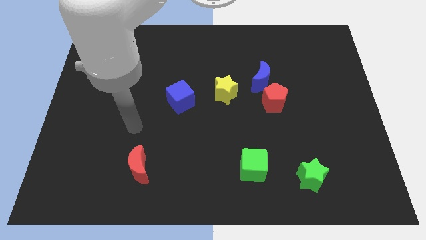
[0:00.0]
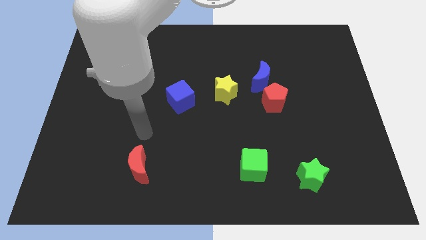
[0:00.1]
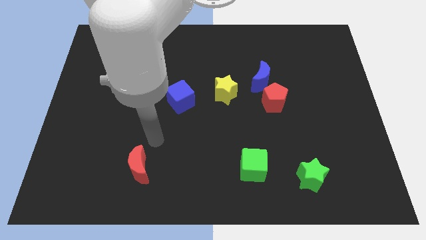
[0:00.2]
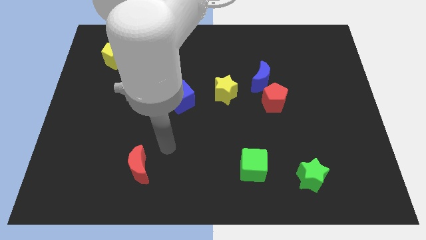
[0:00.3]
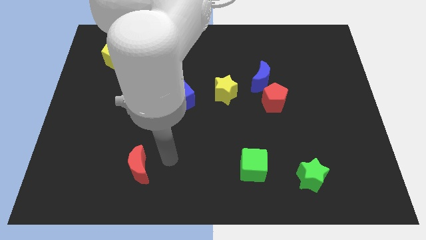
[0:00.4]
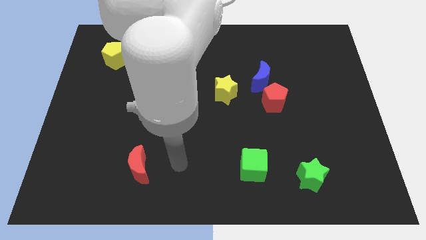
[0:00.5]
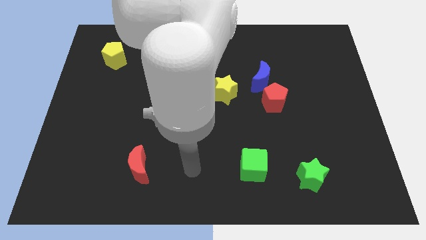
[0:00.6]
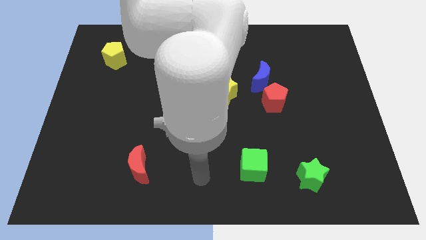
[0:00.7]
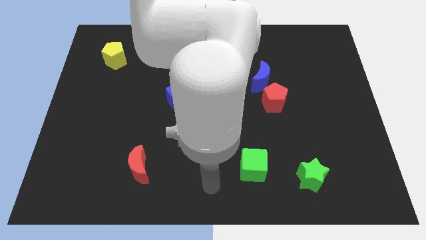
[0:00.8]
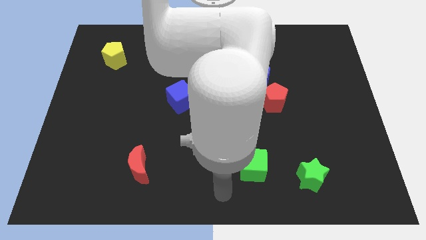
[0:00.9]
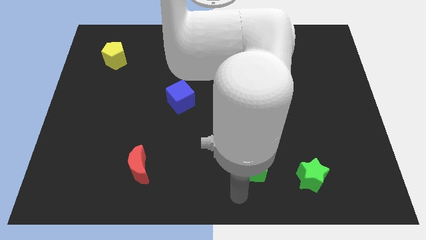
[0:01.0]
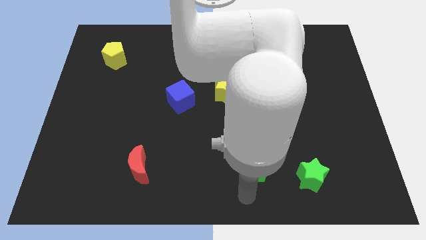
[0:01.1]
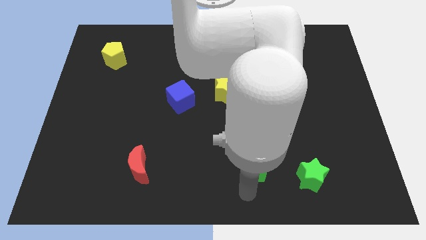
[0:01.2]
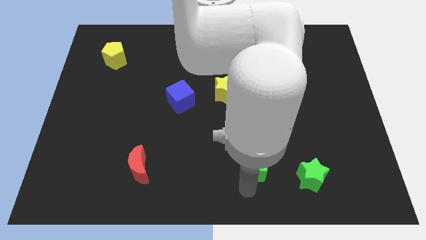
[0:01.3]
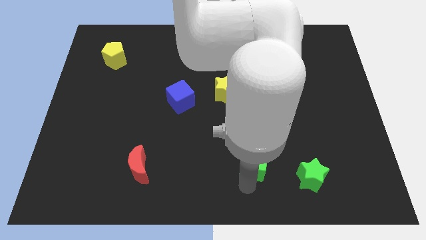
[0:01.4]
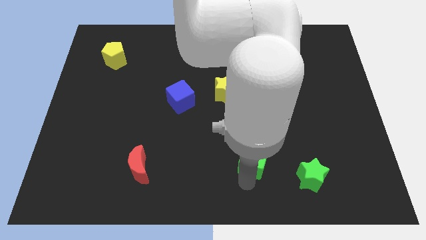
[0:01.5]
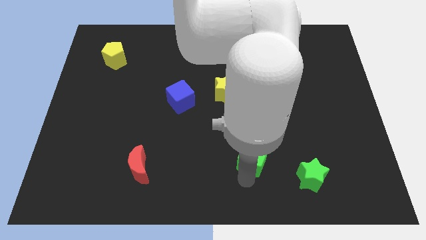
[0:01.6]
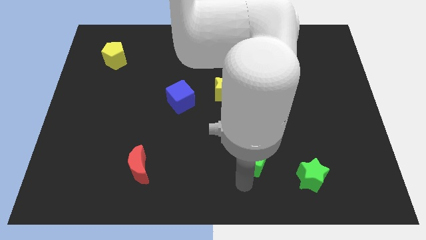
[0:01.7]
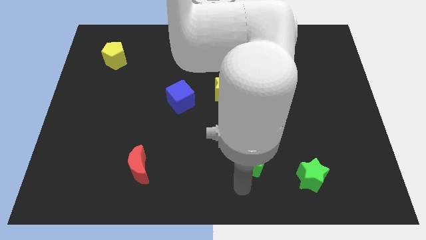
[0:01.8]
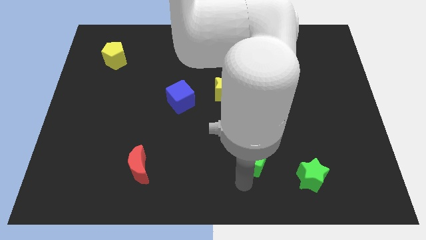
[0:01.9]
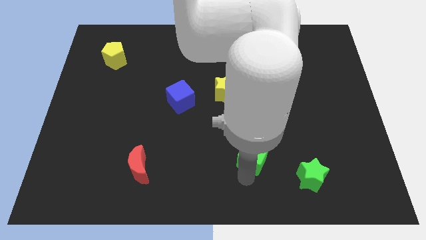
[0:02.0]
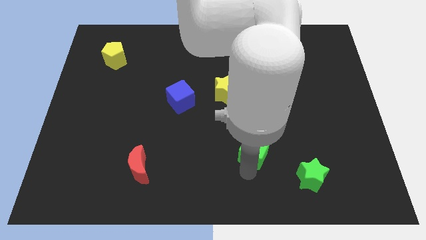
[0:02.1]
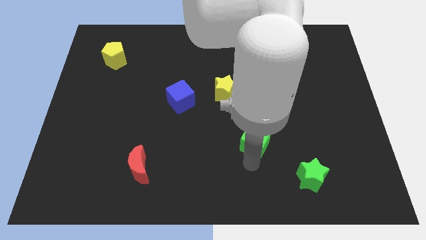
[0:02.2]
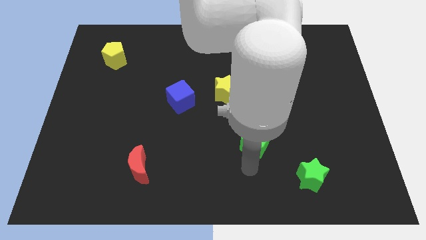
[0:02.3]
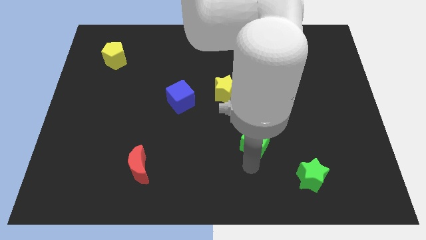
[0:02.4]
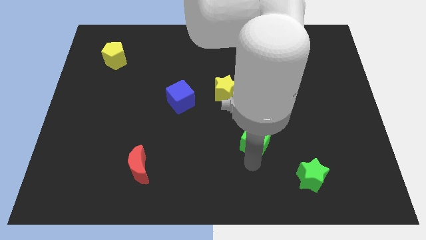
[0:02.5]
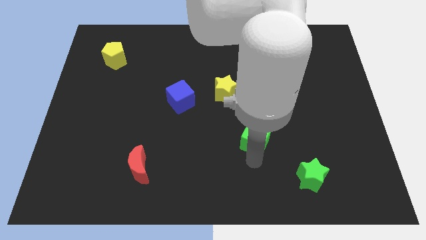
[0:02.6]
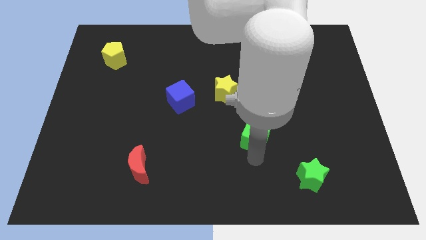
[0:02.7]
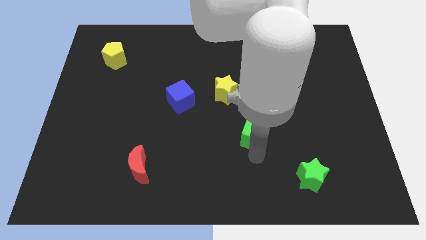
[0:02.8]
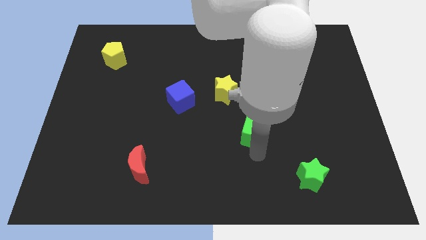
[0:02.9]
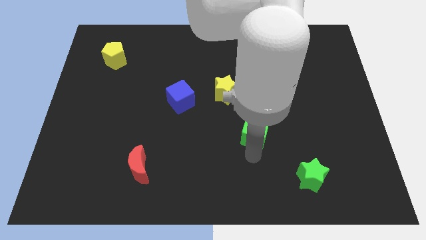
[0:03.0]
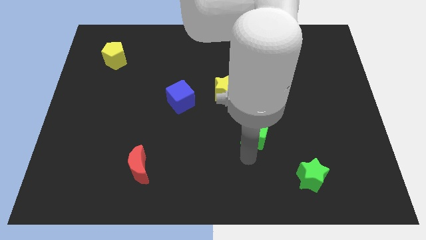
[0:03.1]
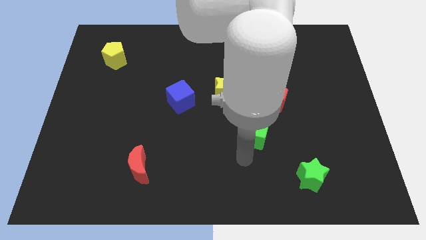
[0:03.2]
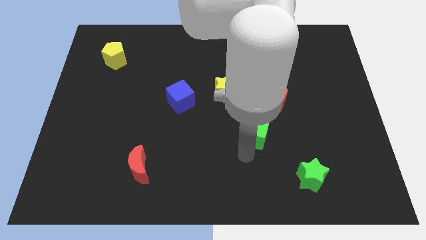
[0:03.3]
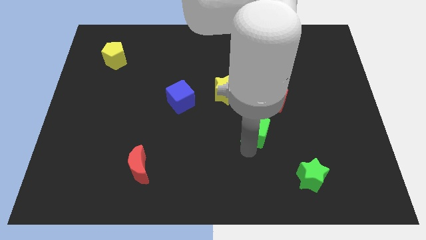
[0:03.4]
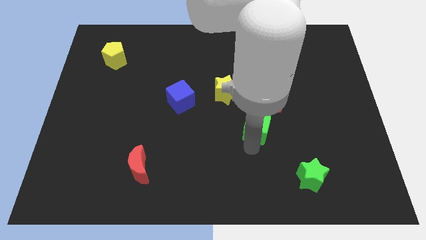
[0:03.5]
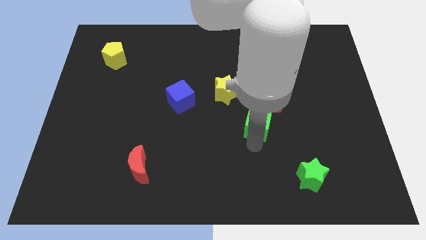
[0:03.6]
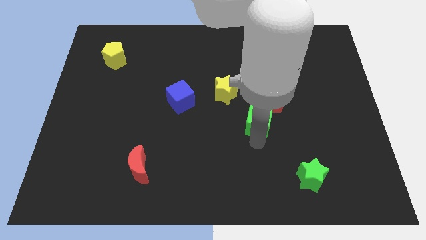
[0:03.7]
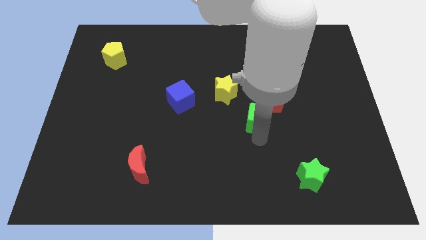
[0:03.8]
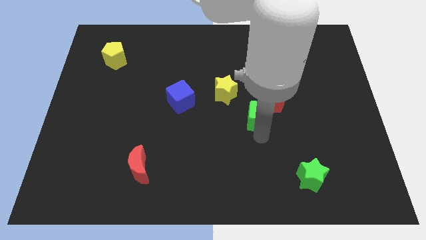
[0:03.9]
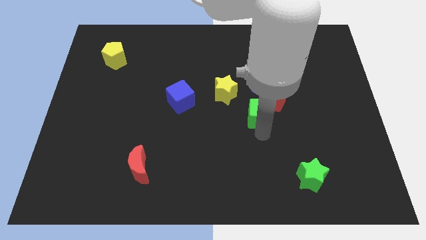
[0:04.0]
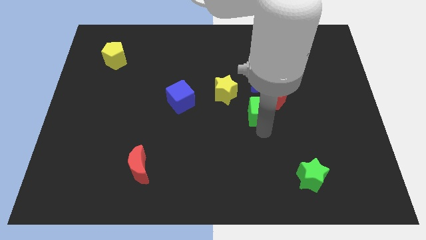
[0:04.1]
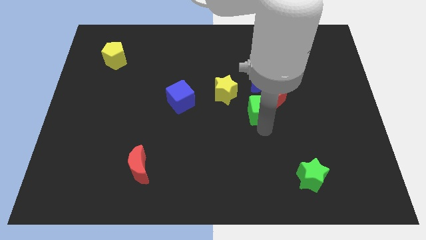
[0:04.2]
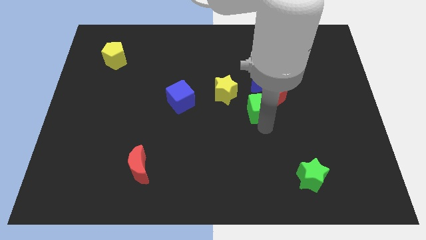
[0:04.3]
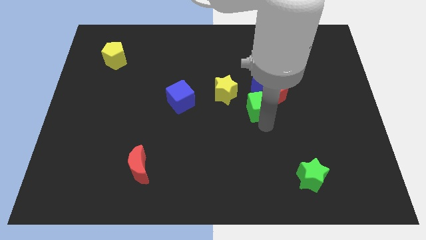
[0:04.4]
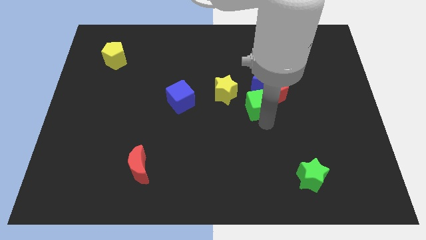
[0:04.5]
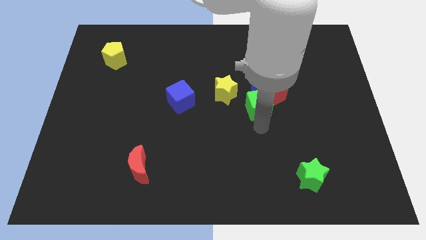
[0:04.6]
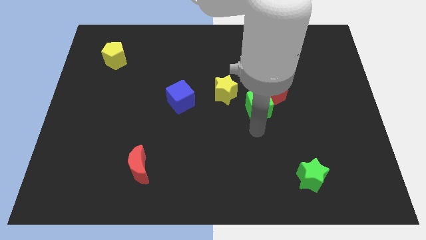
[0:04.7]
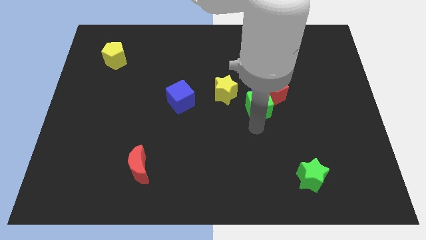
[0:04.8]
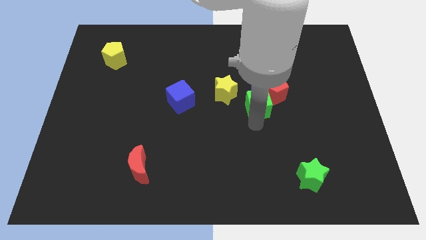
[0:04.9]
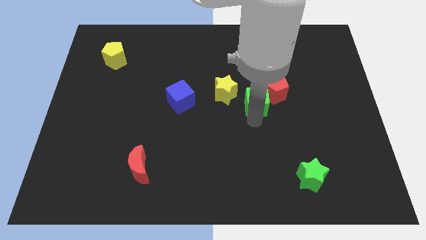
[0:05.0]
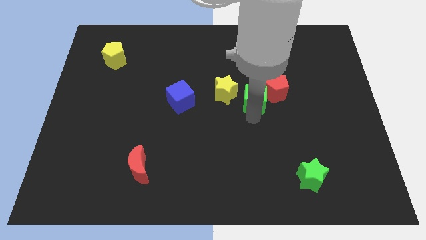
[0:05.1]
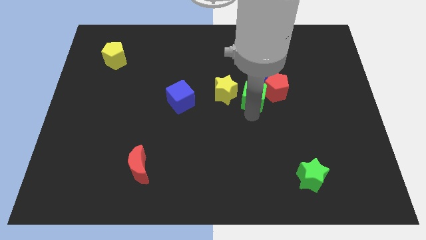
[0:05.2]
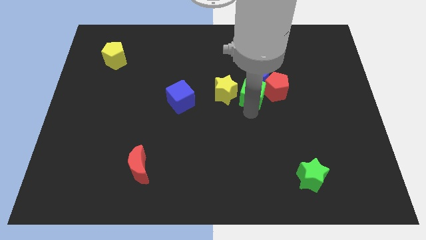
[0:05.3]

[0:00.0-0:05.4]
push the green cube close to the blue moon

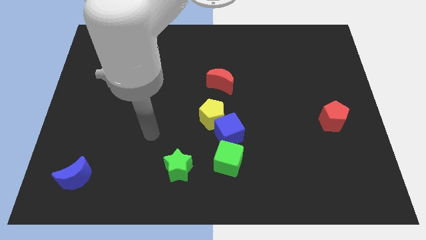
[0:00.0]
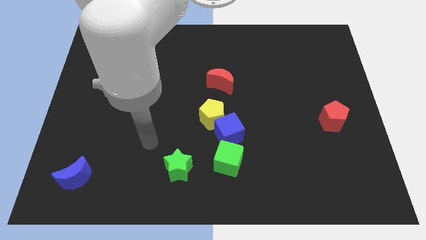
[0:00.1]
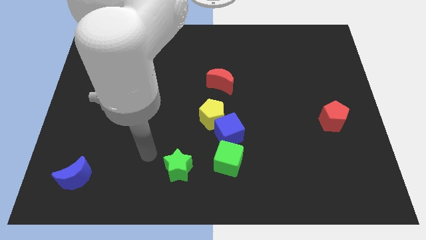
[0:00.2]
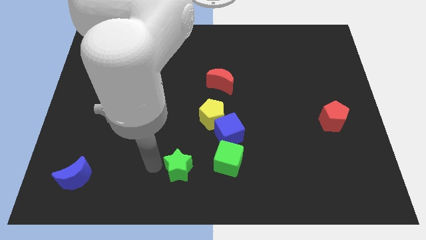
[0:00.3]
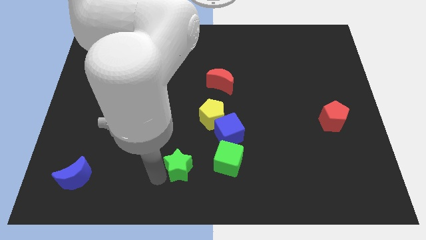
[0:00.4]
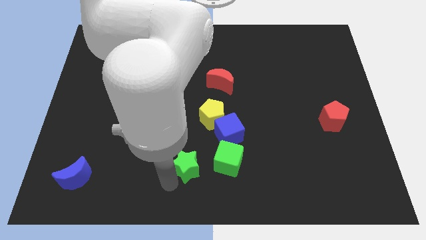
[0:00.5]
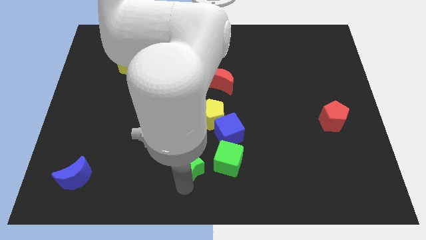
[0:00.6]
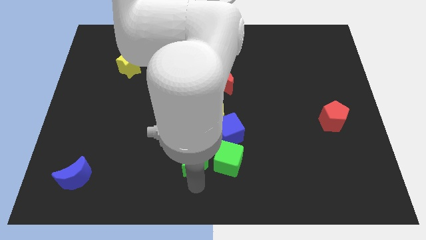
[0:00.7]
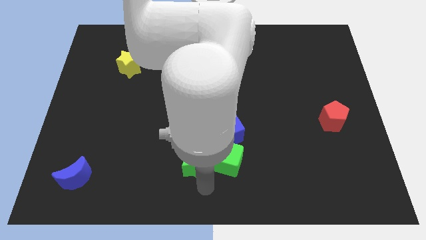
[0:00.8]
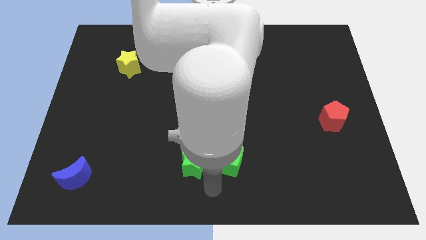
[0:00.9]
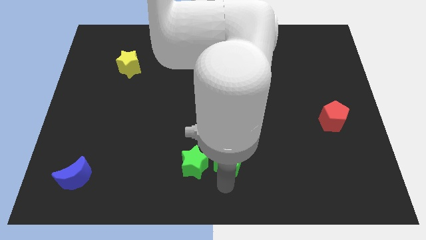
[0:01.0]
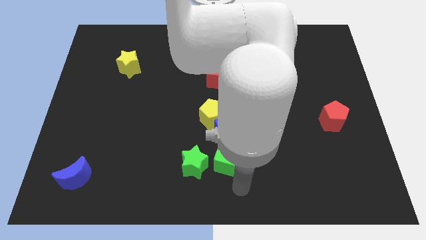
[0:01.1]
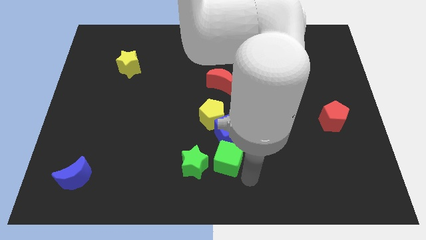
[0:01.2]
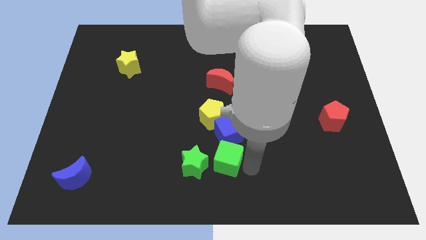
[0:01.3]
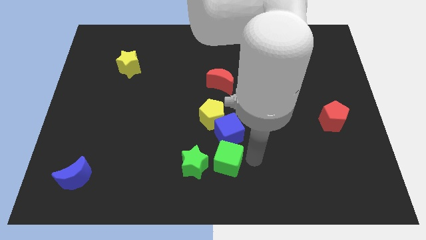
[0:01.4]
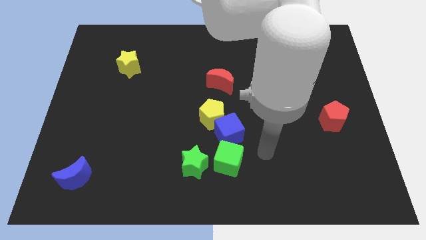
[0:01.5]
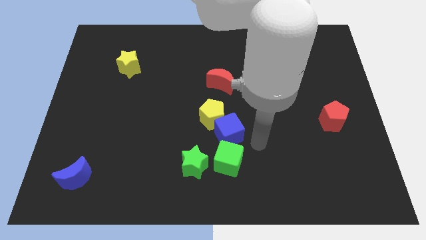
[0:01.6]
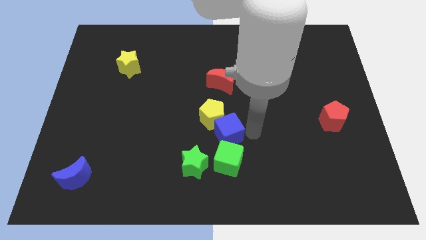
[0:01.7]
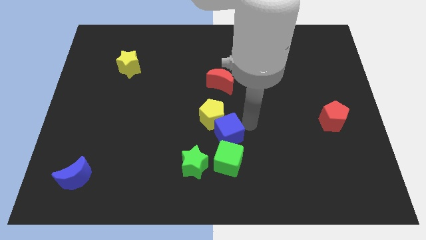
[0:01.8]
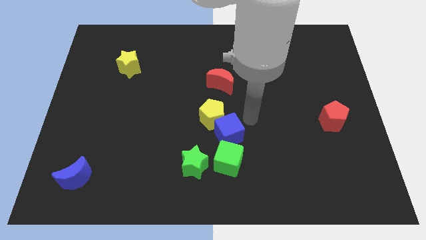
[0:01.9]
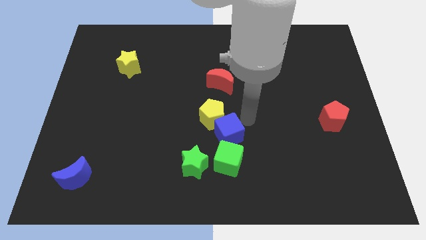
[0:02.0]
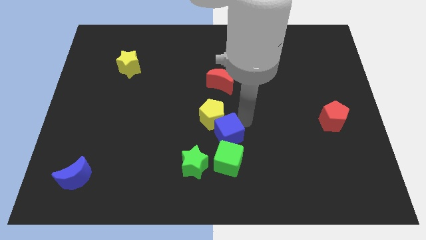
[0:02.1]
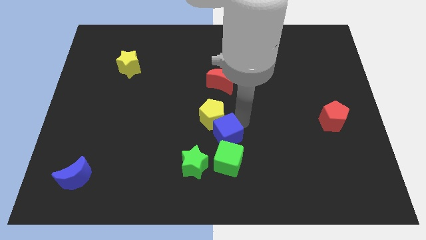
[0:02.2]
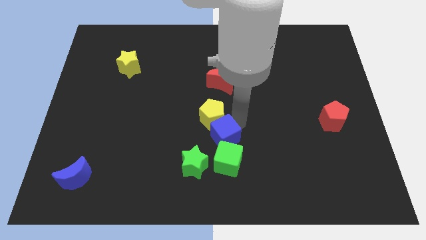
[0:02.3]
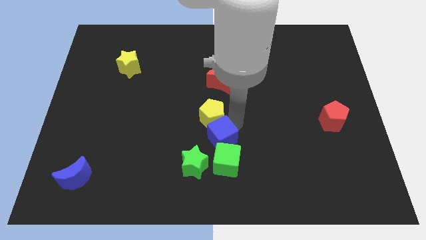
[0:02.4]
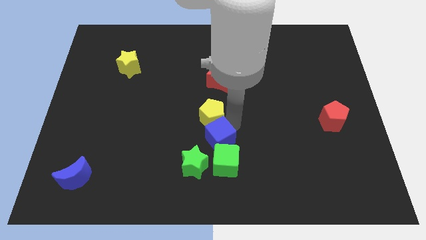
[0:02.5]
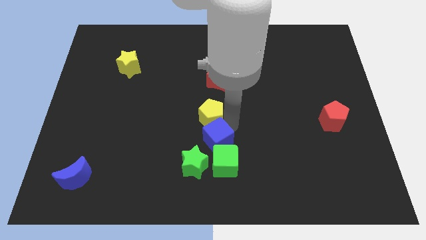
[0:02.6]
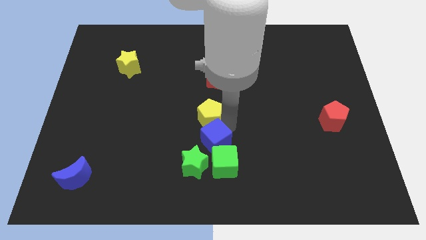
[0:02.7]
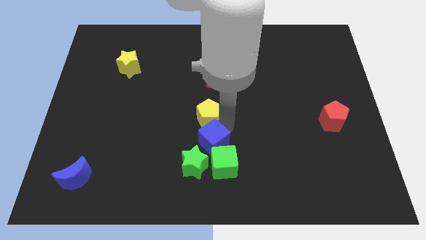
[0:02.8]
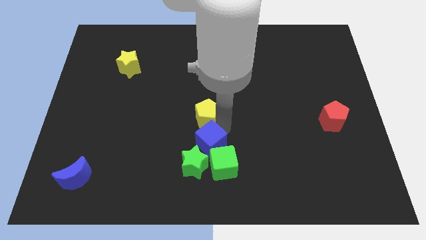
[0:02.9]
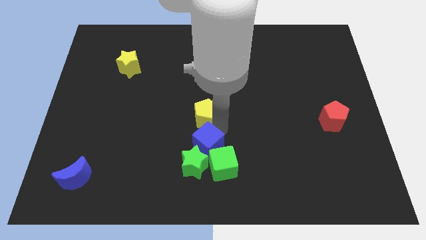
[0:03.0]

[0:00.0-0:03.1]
put the blue cube towards the green star
